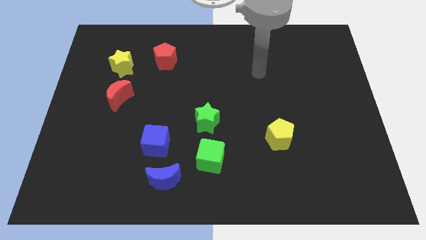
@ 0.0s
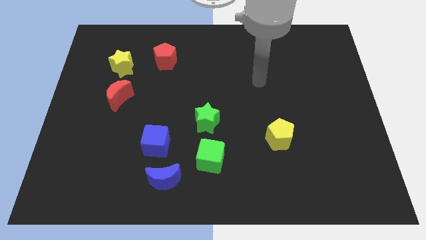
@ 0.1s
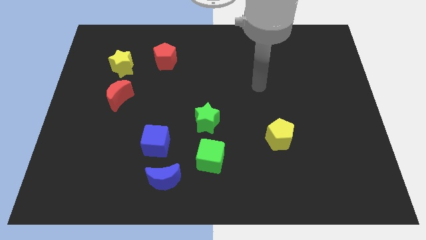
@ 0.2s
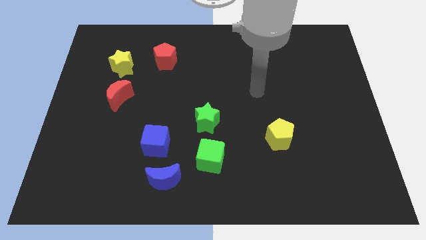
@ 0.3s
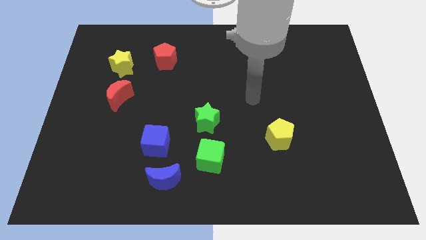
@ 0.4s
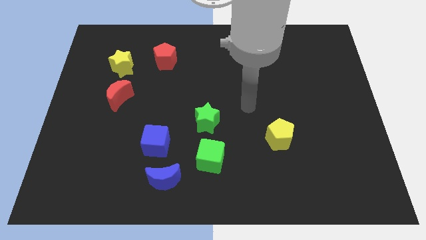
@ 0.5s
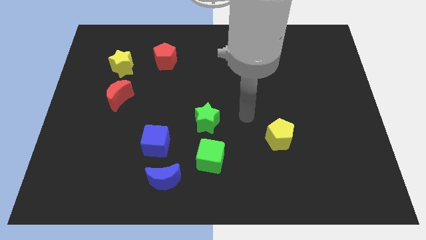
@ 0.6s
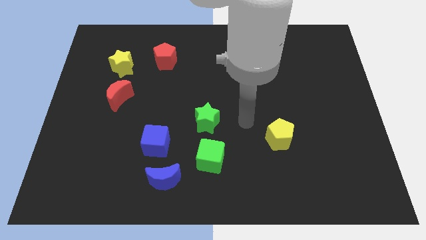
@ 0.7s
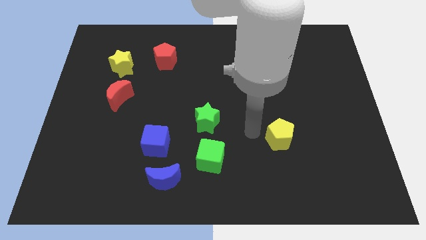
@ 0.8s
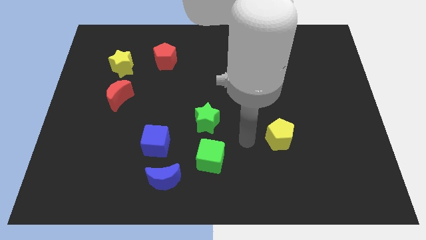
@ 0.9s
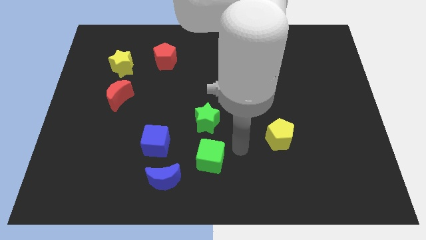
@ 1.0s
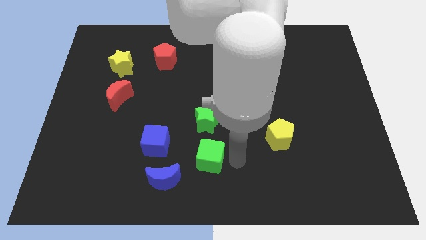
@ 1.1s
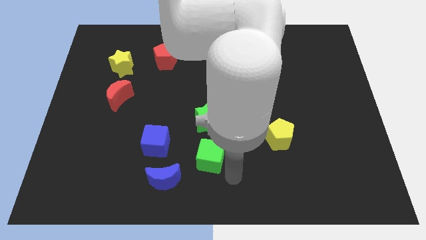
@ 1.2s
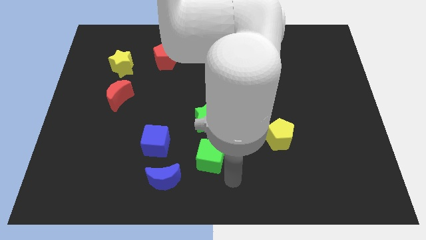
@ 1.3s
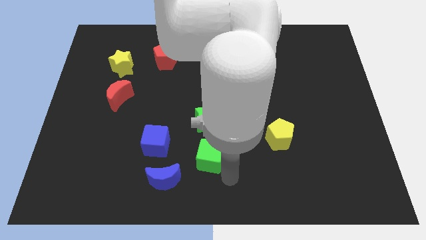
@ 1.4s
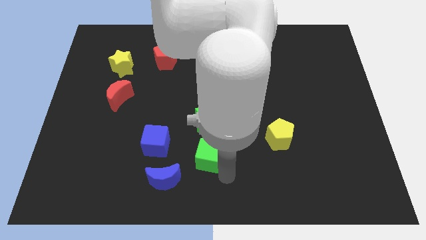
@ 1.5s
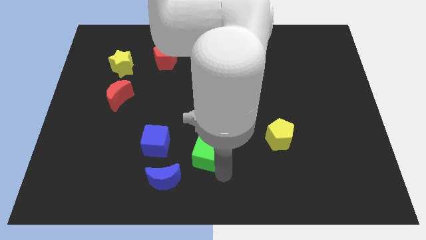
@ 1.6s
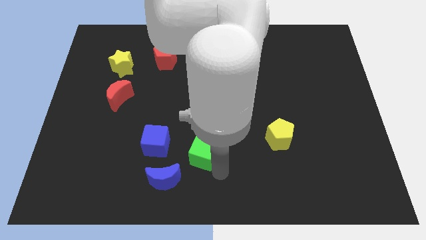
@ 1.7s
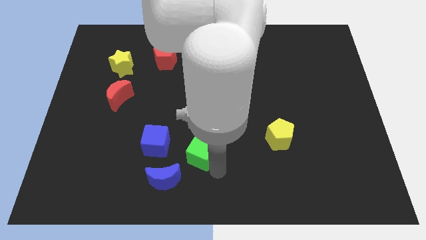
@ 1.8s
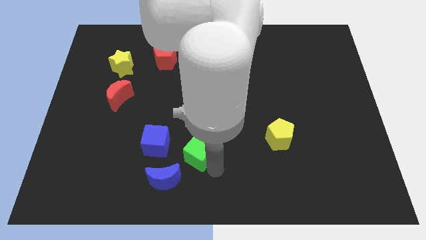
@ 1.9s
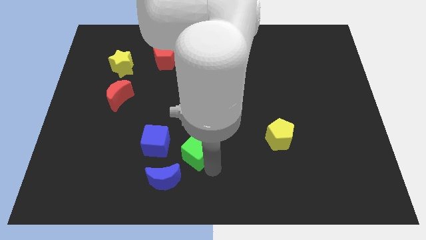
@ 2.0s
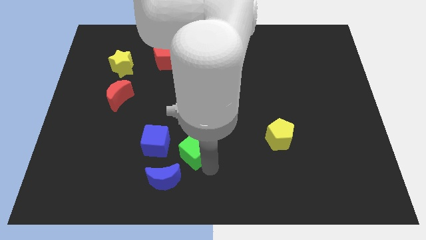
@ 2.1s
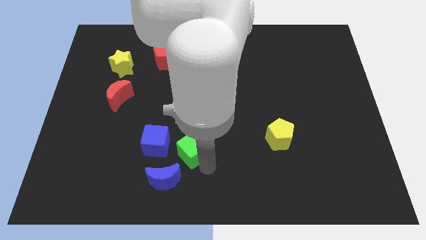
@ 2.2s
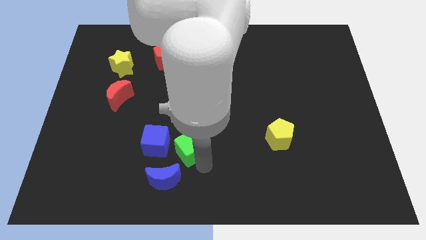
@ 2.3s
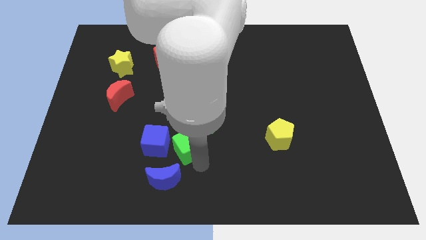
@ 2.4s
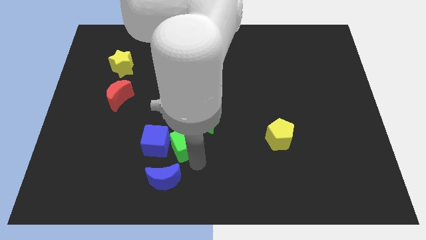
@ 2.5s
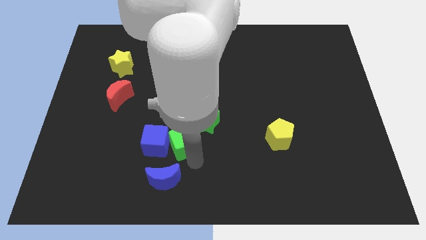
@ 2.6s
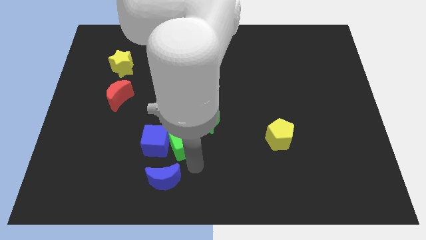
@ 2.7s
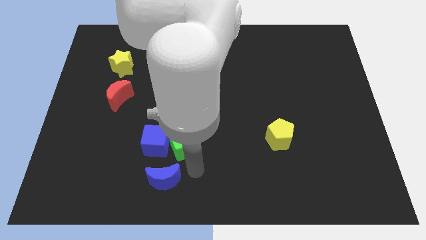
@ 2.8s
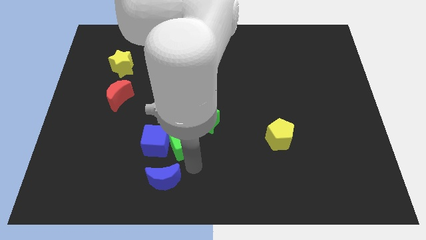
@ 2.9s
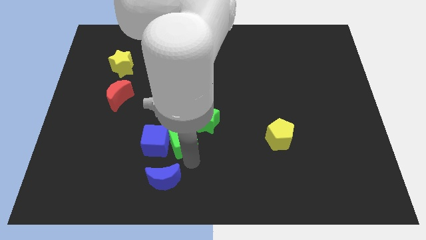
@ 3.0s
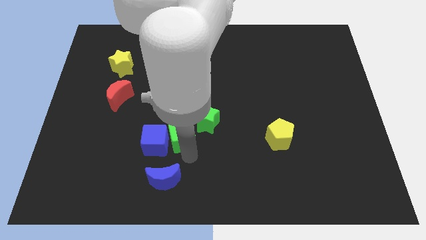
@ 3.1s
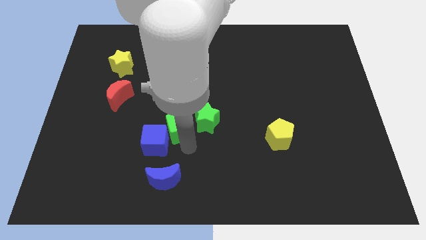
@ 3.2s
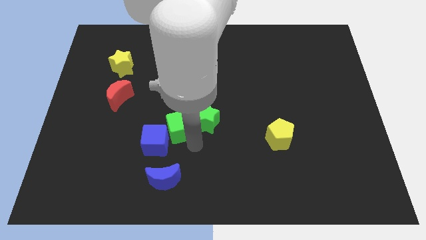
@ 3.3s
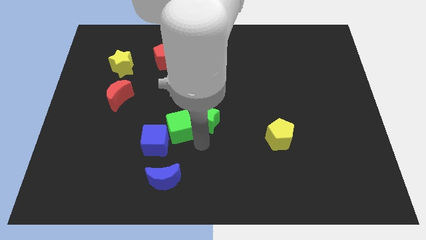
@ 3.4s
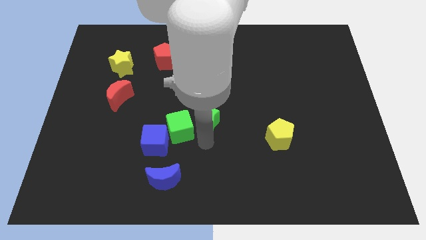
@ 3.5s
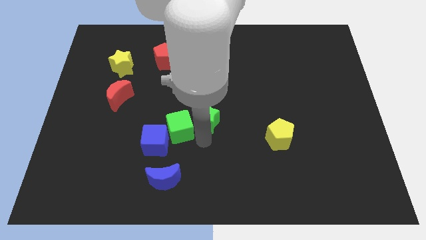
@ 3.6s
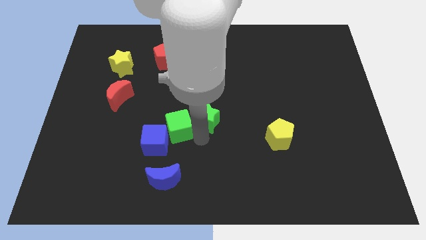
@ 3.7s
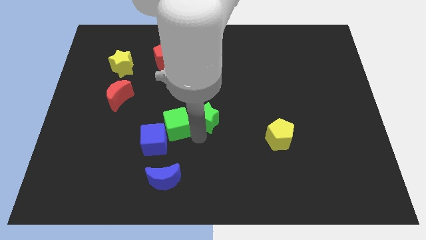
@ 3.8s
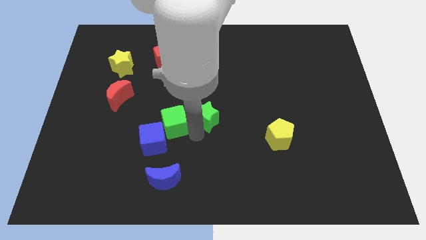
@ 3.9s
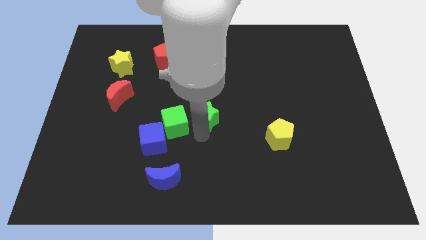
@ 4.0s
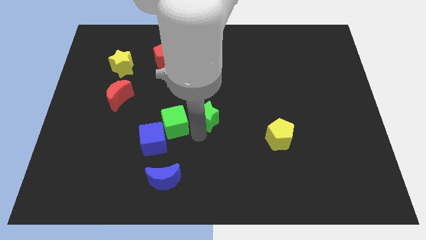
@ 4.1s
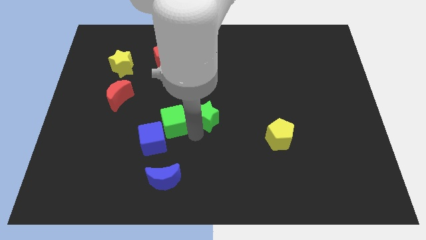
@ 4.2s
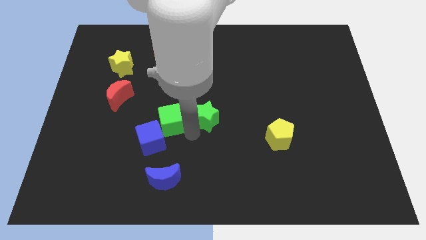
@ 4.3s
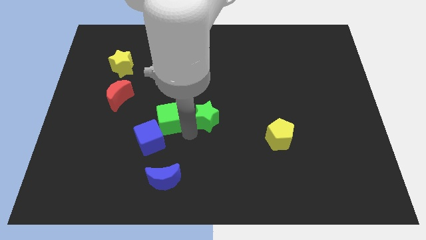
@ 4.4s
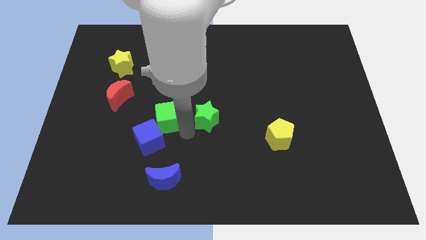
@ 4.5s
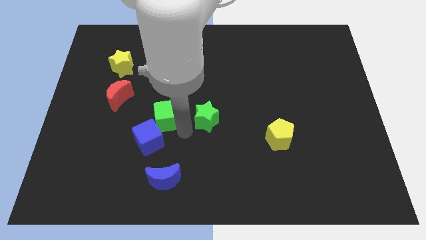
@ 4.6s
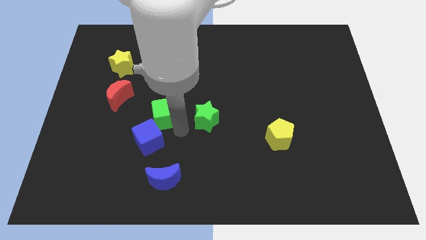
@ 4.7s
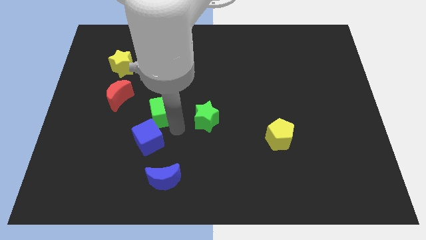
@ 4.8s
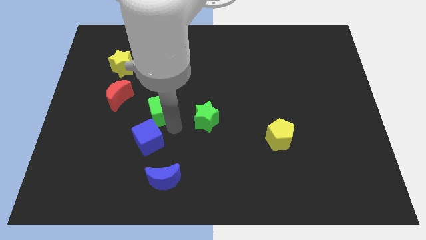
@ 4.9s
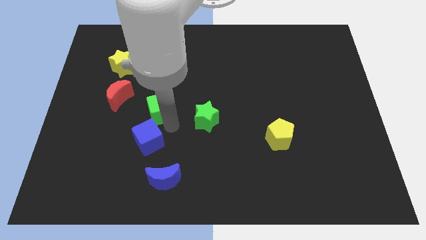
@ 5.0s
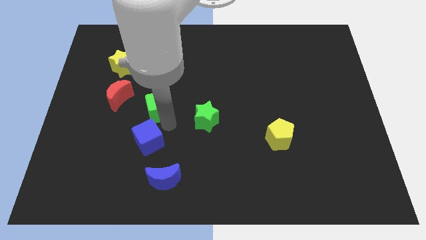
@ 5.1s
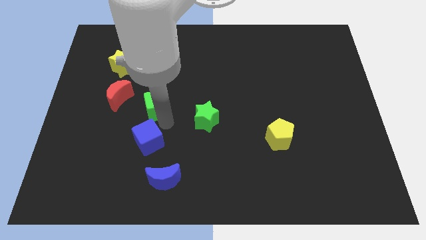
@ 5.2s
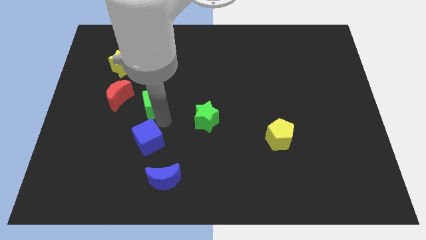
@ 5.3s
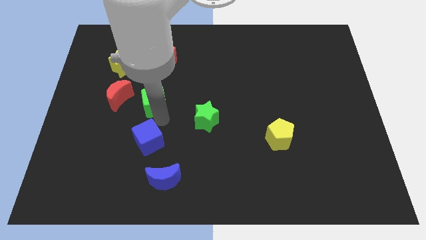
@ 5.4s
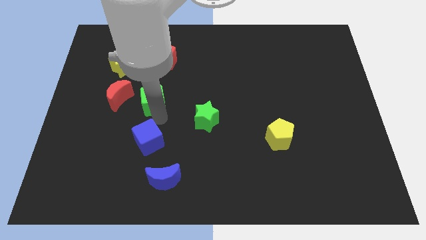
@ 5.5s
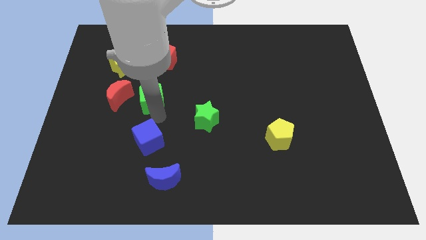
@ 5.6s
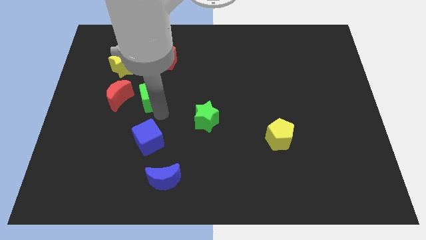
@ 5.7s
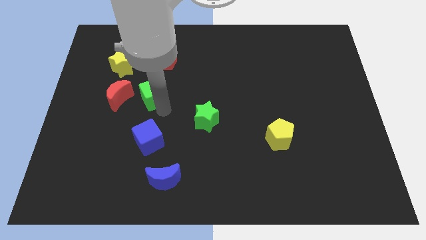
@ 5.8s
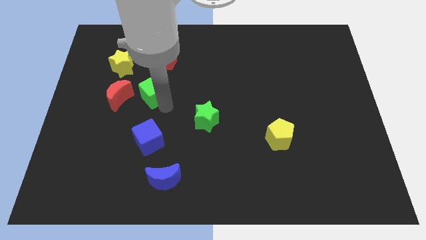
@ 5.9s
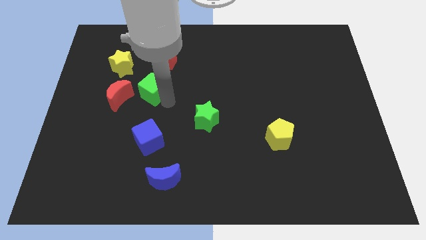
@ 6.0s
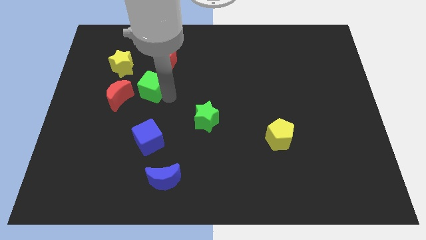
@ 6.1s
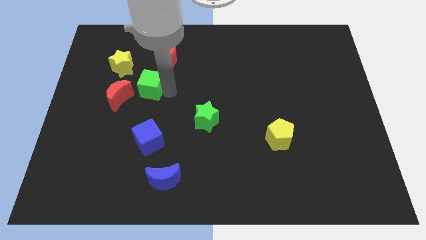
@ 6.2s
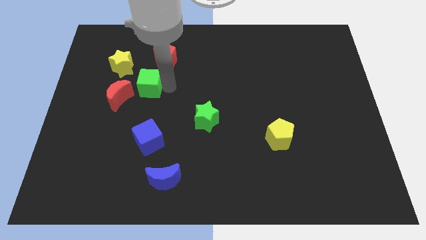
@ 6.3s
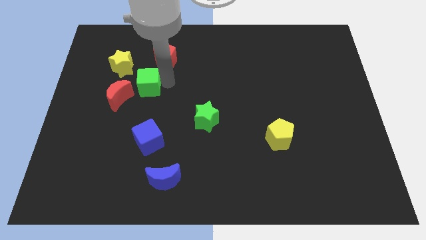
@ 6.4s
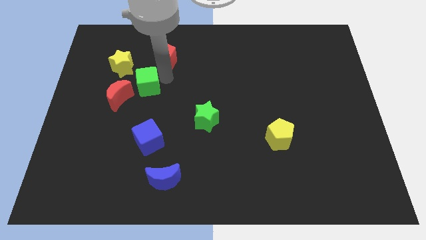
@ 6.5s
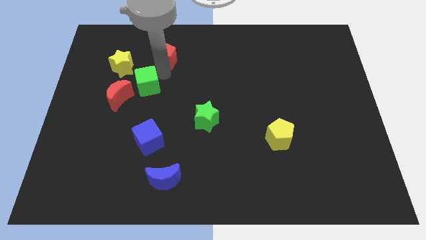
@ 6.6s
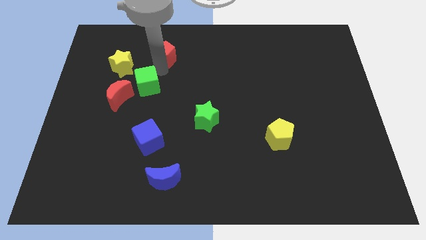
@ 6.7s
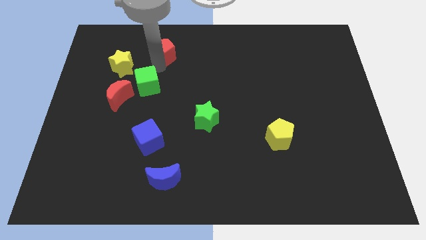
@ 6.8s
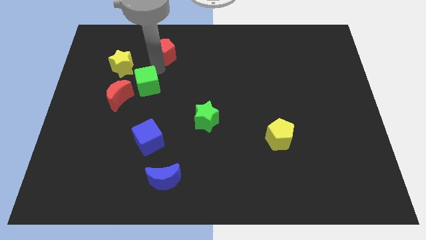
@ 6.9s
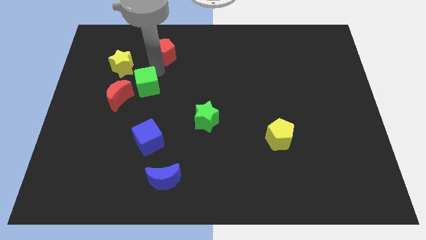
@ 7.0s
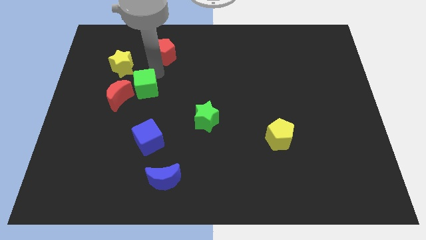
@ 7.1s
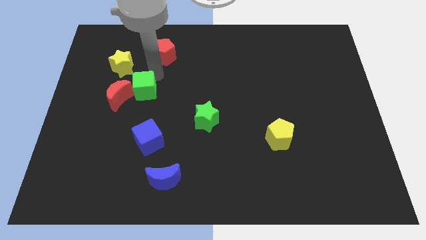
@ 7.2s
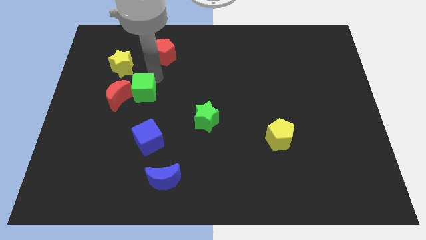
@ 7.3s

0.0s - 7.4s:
put the green cube next to the red moon
